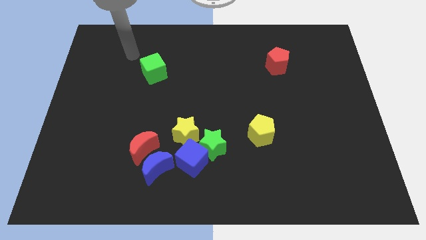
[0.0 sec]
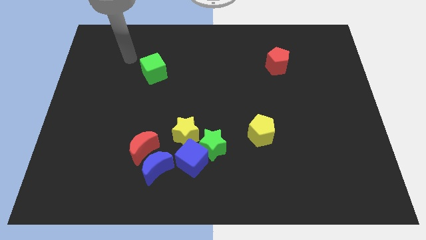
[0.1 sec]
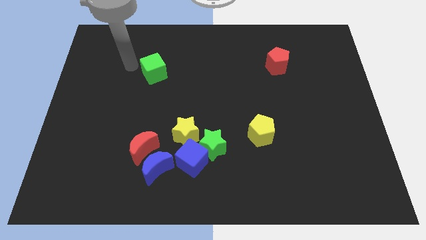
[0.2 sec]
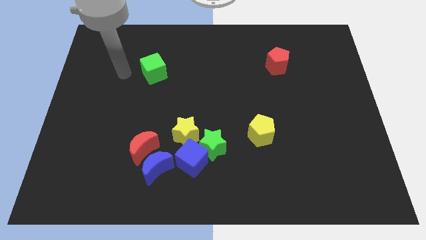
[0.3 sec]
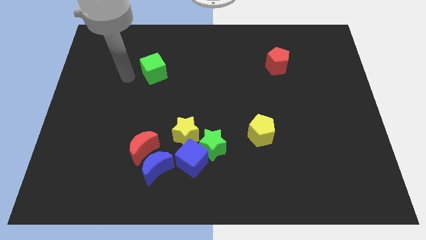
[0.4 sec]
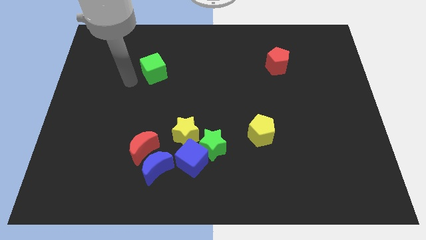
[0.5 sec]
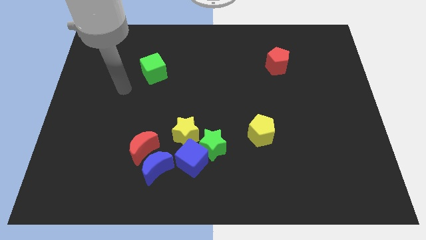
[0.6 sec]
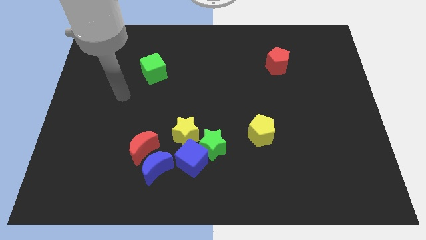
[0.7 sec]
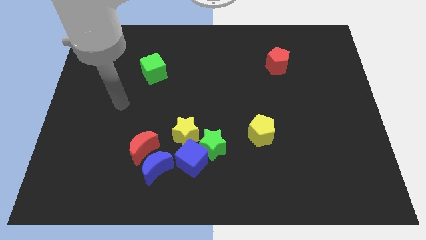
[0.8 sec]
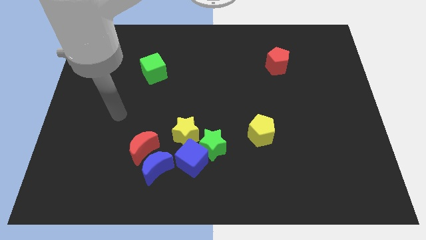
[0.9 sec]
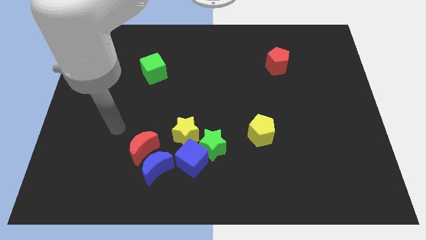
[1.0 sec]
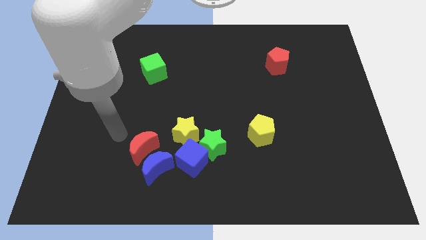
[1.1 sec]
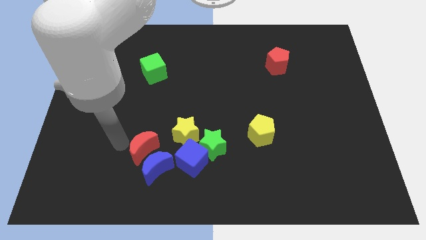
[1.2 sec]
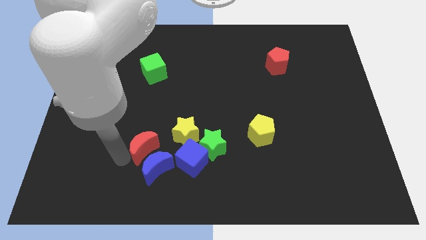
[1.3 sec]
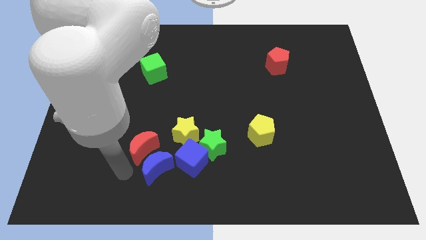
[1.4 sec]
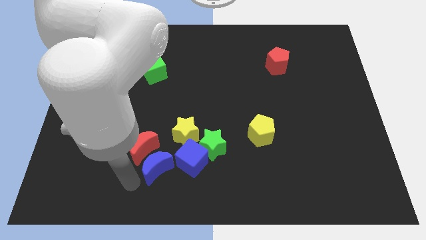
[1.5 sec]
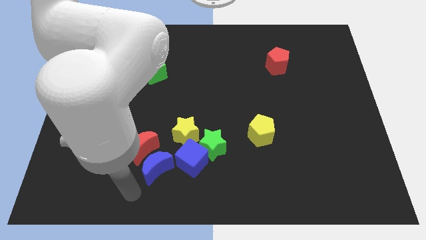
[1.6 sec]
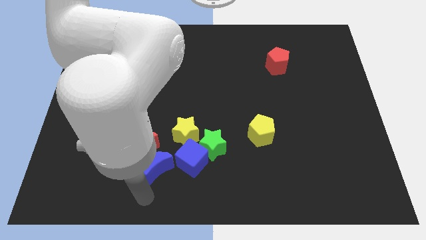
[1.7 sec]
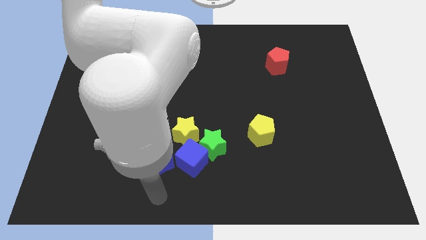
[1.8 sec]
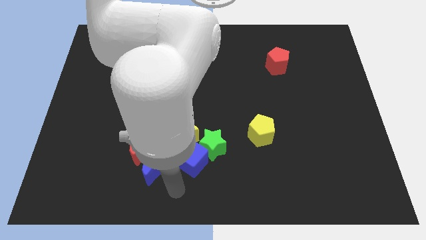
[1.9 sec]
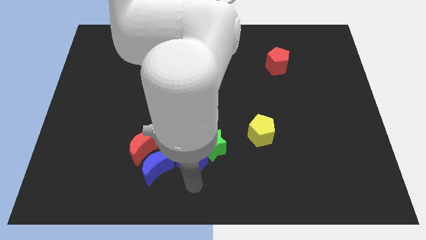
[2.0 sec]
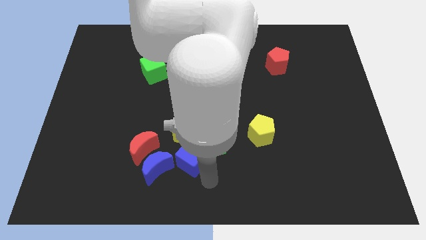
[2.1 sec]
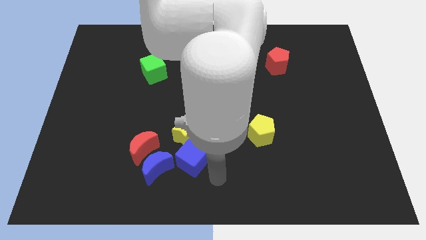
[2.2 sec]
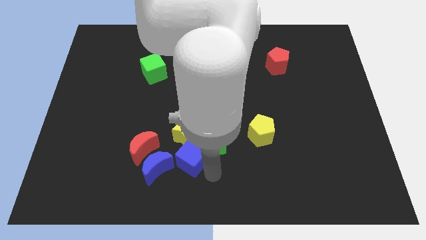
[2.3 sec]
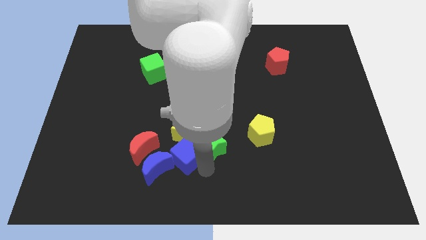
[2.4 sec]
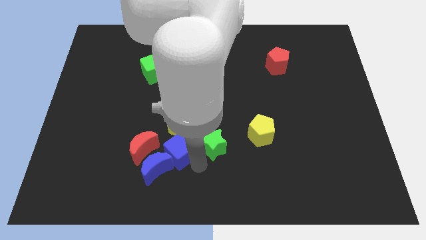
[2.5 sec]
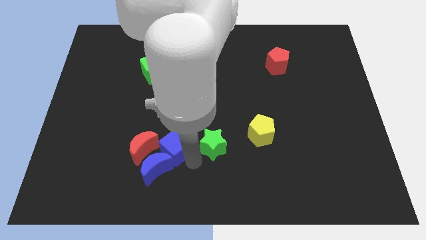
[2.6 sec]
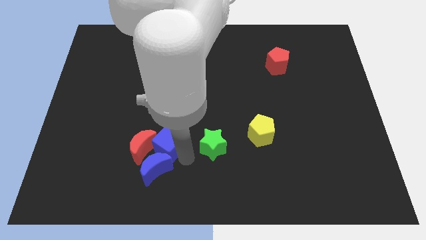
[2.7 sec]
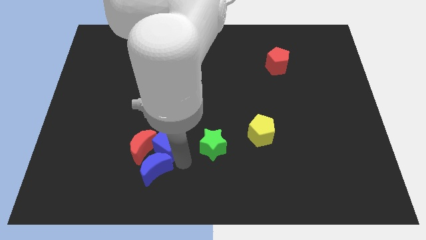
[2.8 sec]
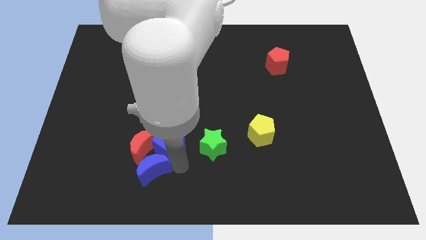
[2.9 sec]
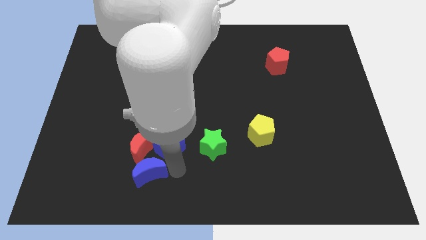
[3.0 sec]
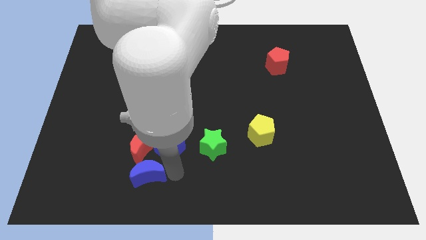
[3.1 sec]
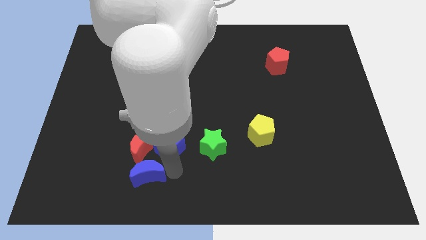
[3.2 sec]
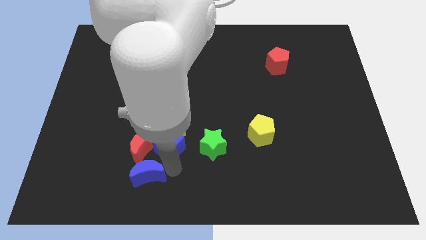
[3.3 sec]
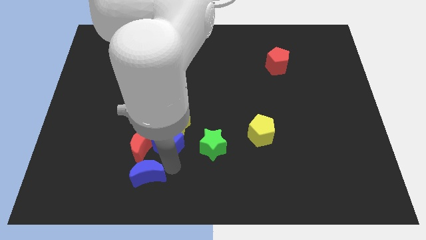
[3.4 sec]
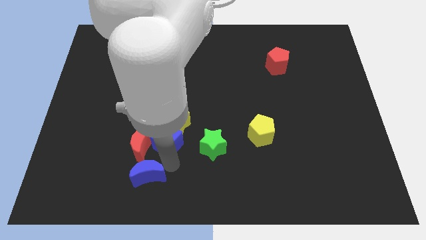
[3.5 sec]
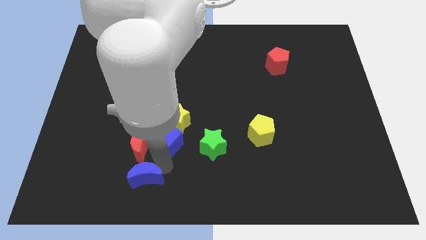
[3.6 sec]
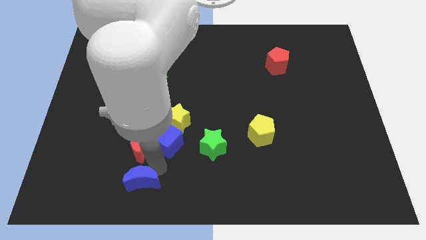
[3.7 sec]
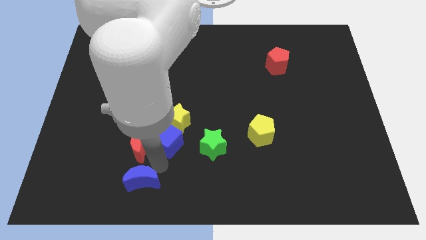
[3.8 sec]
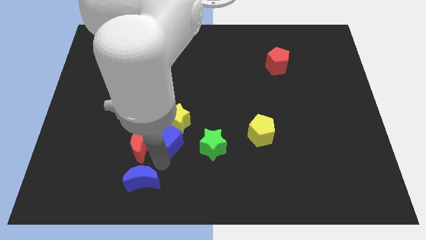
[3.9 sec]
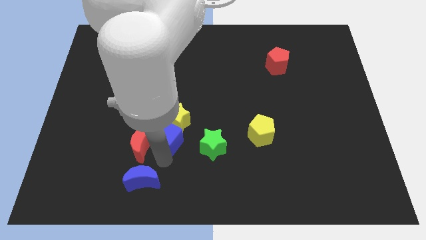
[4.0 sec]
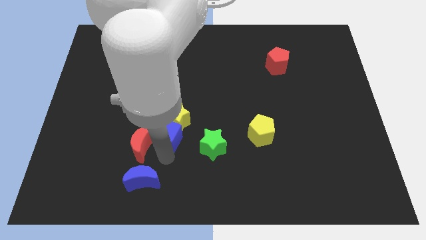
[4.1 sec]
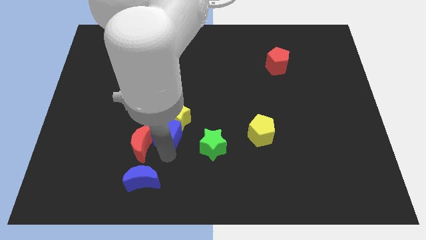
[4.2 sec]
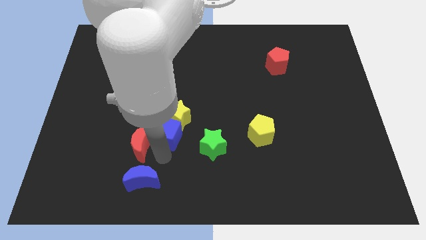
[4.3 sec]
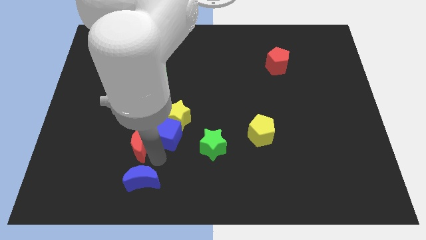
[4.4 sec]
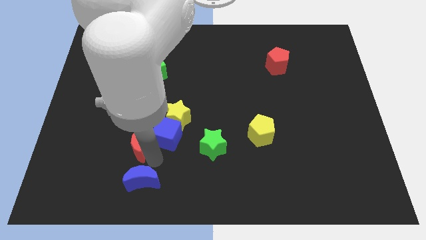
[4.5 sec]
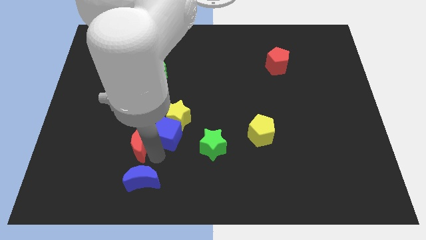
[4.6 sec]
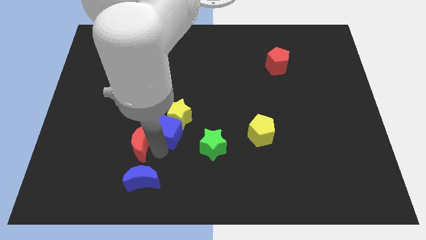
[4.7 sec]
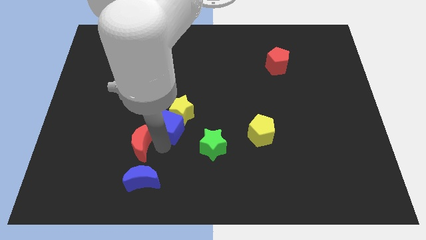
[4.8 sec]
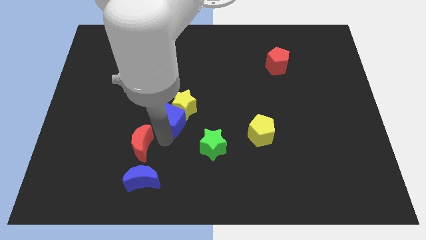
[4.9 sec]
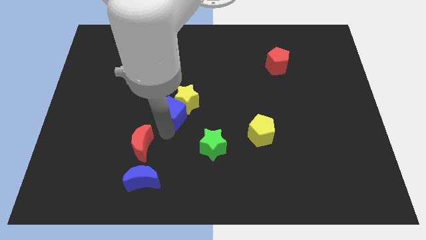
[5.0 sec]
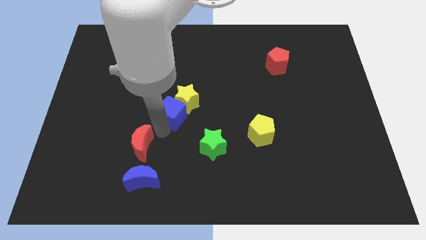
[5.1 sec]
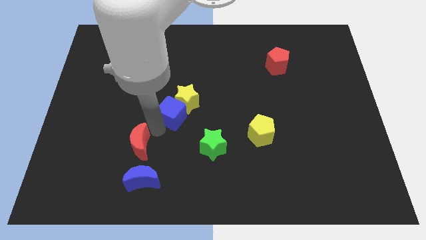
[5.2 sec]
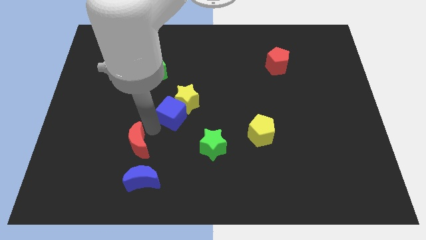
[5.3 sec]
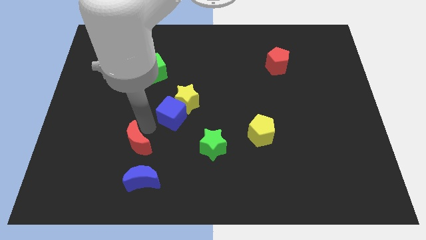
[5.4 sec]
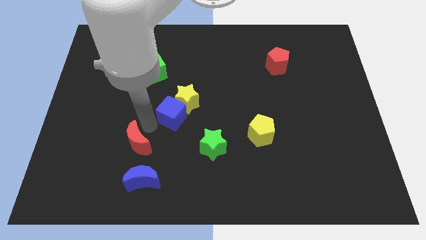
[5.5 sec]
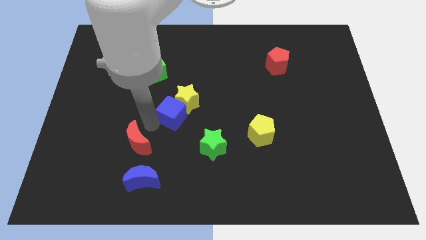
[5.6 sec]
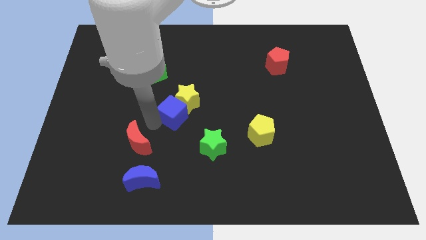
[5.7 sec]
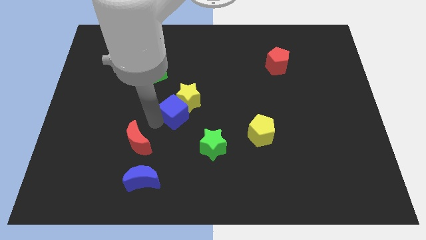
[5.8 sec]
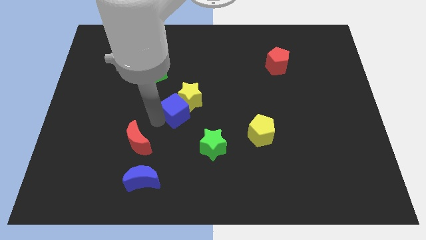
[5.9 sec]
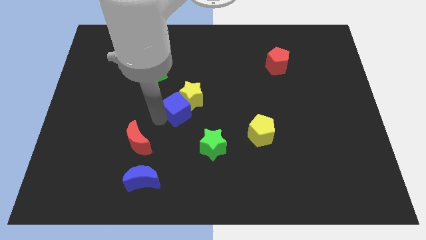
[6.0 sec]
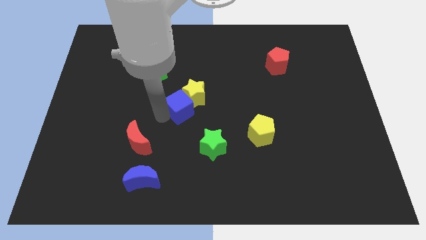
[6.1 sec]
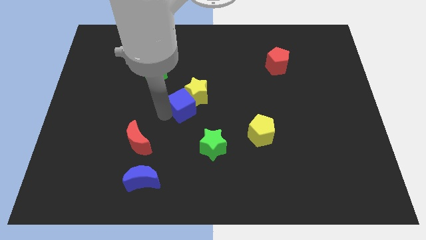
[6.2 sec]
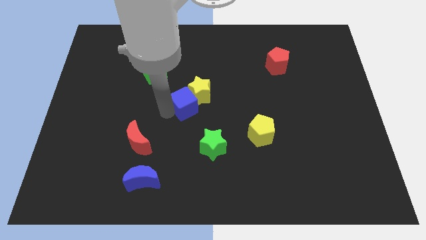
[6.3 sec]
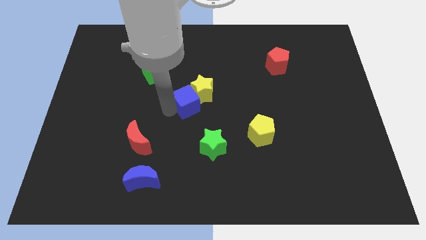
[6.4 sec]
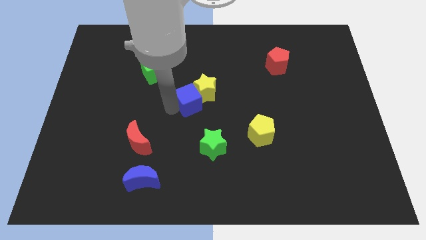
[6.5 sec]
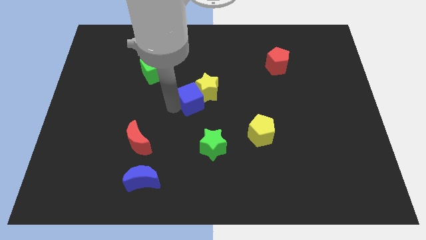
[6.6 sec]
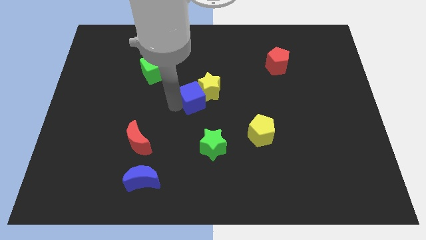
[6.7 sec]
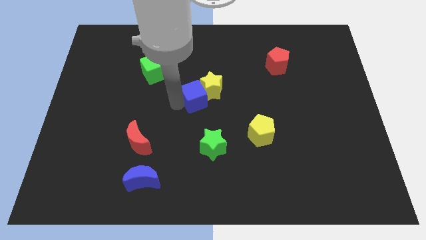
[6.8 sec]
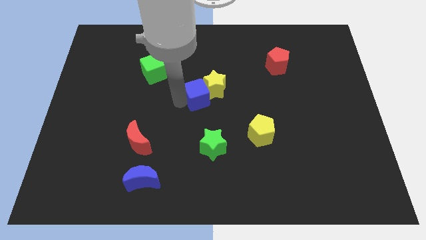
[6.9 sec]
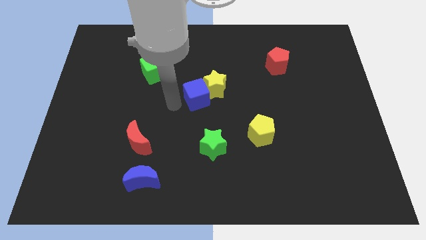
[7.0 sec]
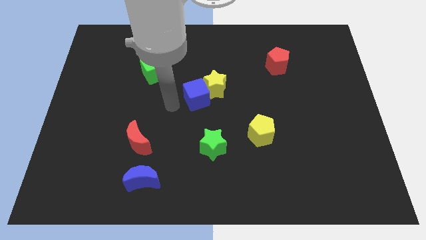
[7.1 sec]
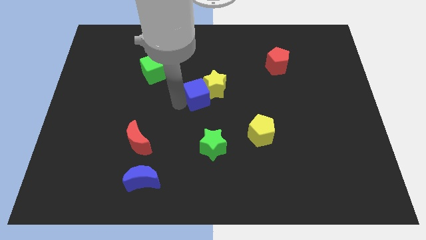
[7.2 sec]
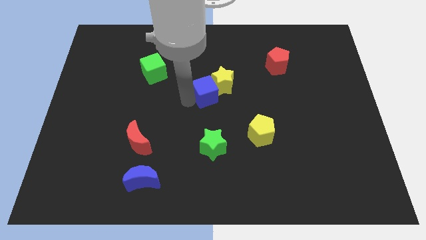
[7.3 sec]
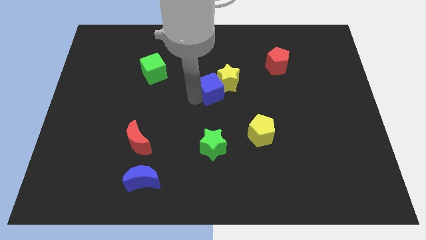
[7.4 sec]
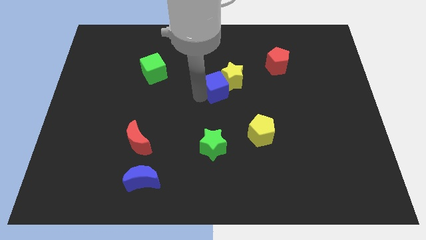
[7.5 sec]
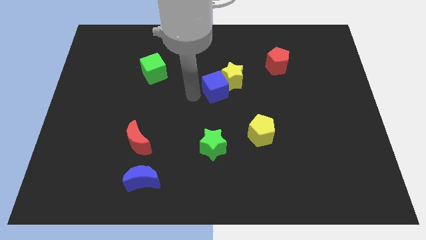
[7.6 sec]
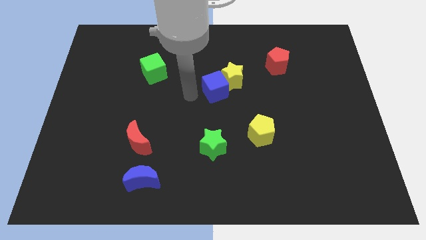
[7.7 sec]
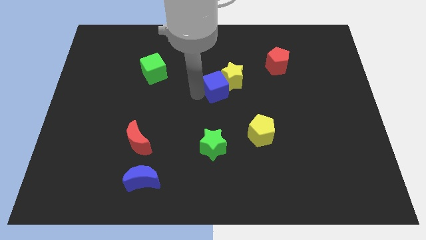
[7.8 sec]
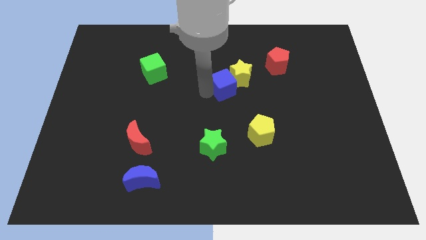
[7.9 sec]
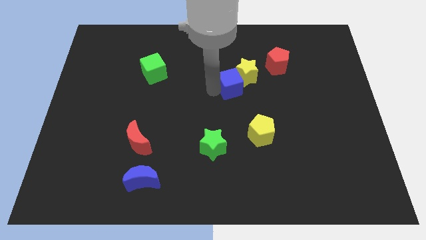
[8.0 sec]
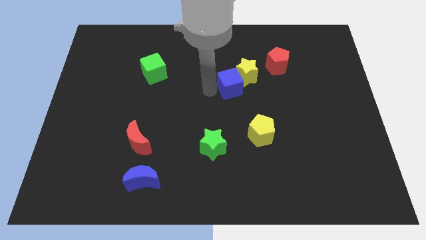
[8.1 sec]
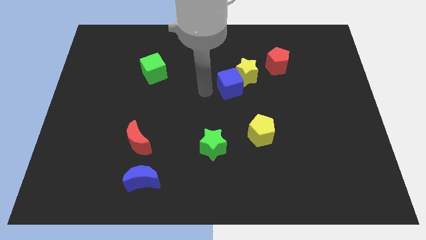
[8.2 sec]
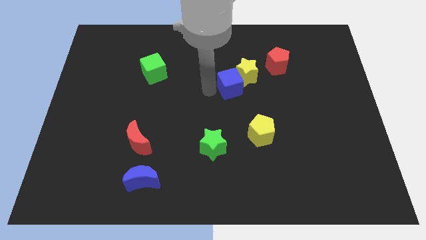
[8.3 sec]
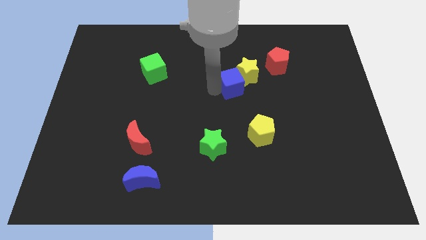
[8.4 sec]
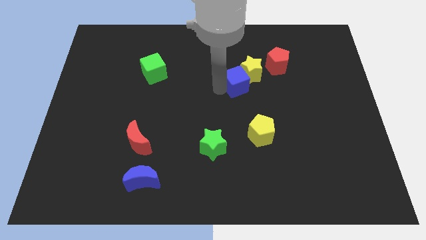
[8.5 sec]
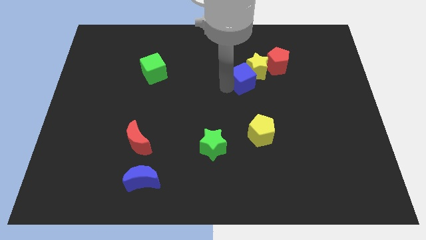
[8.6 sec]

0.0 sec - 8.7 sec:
push the blue cube diagonally up and right
